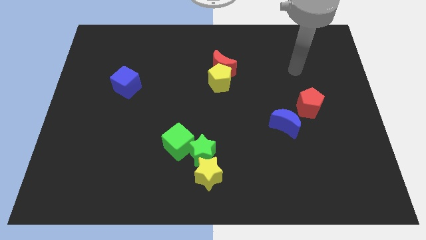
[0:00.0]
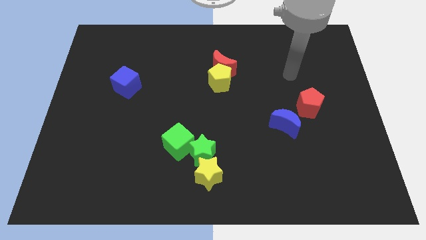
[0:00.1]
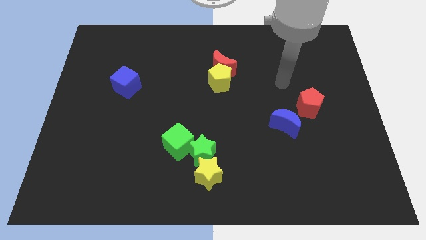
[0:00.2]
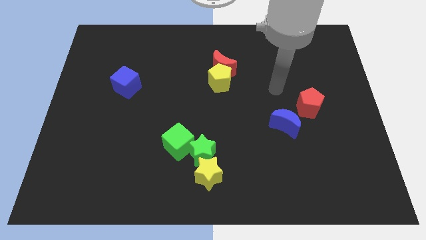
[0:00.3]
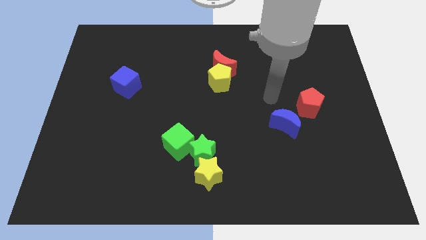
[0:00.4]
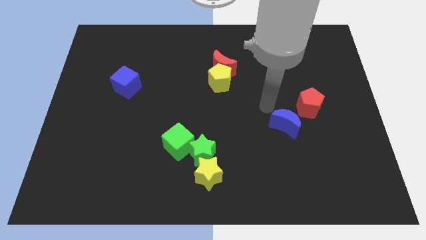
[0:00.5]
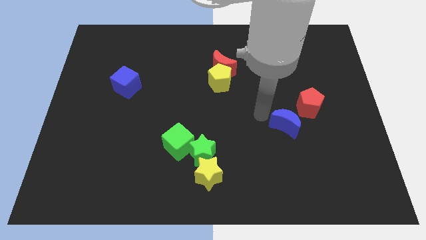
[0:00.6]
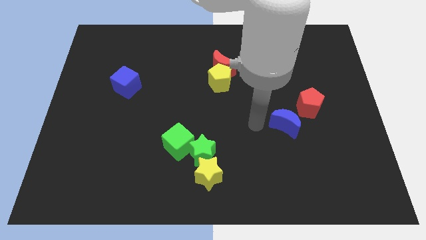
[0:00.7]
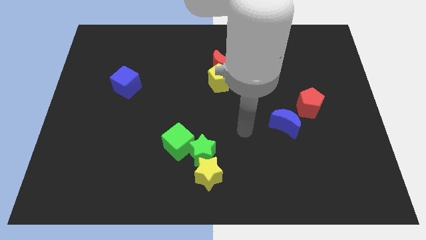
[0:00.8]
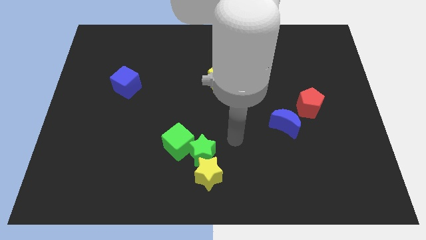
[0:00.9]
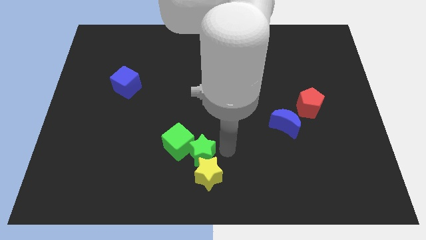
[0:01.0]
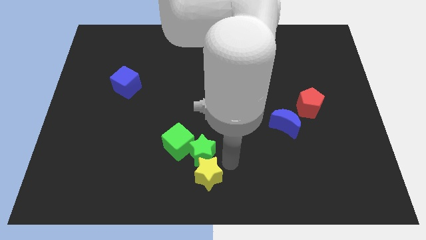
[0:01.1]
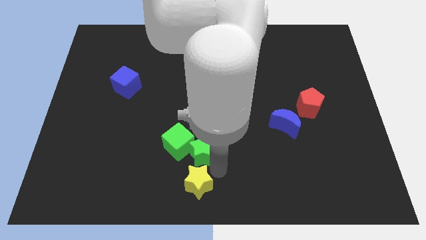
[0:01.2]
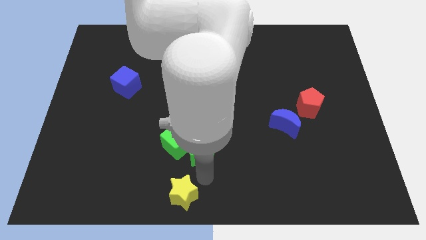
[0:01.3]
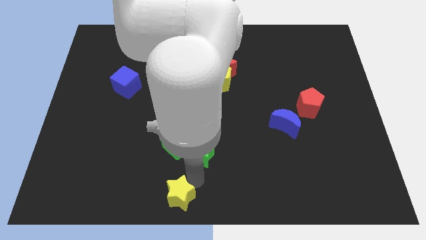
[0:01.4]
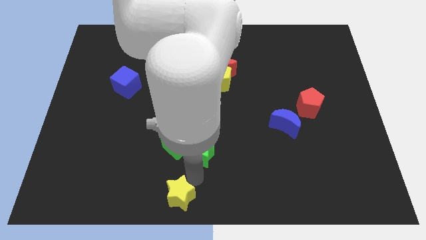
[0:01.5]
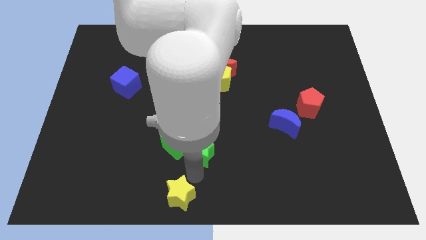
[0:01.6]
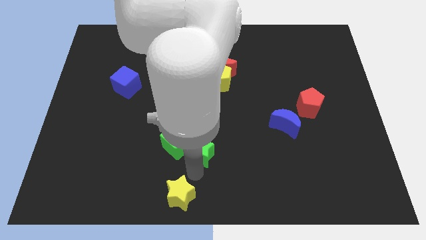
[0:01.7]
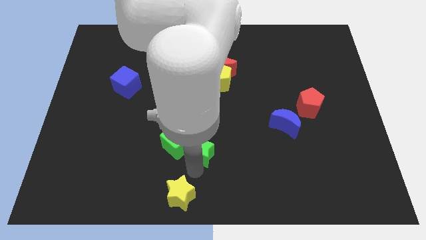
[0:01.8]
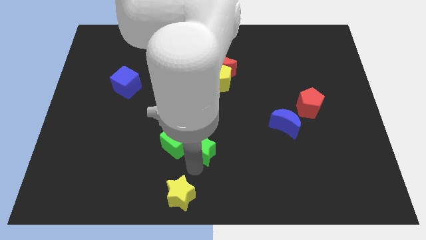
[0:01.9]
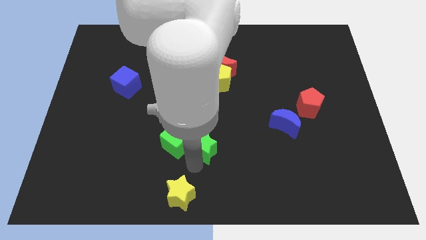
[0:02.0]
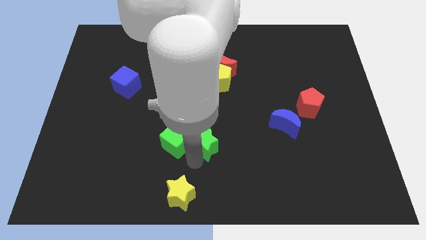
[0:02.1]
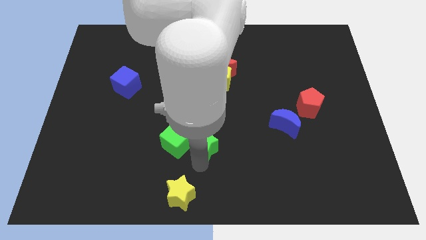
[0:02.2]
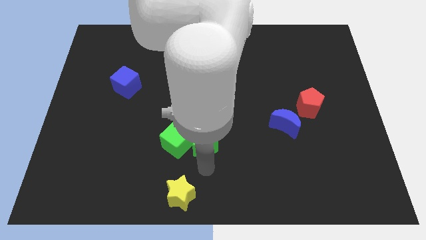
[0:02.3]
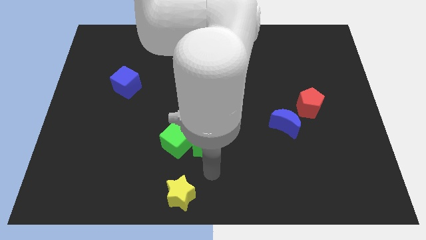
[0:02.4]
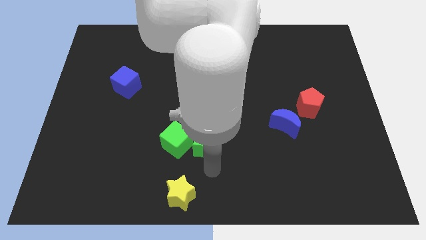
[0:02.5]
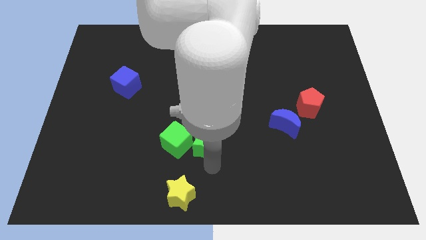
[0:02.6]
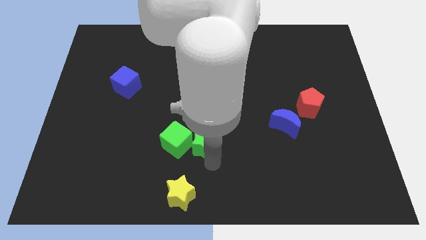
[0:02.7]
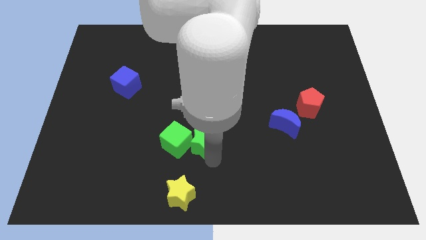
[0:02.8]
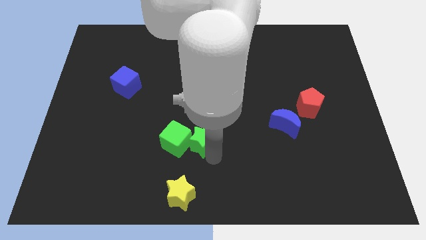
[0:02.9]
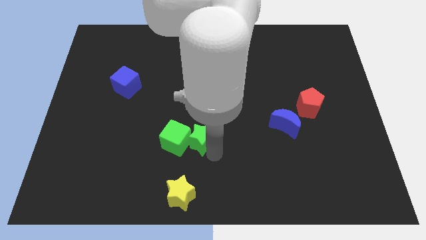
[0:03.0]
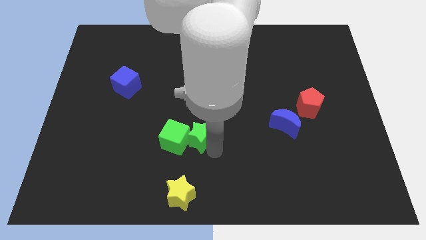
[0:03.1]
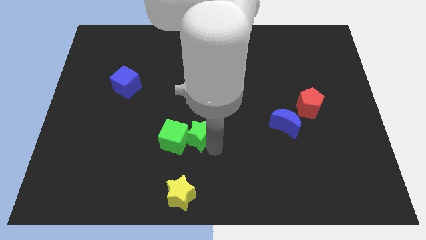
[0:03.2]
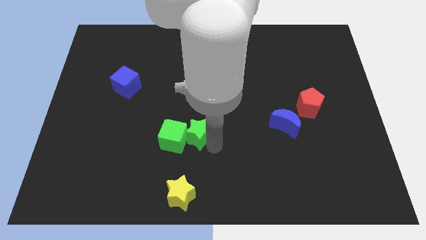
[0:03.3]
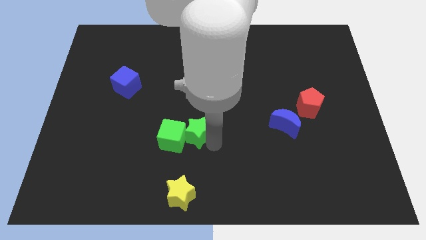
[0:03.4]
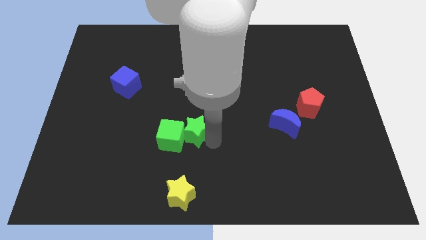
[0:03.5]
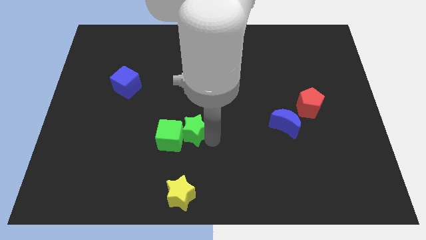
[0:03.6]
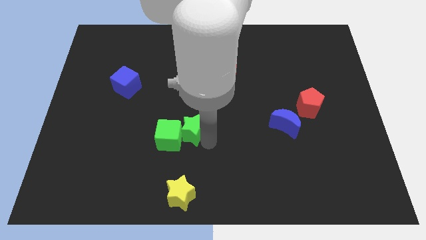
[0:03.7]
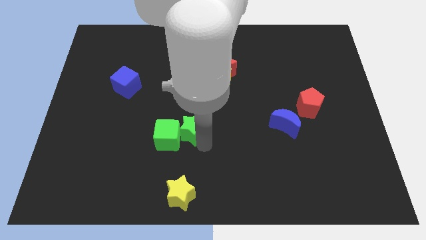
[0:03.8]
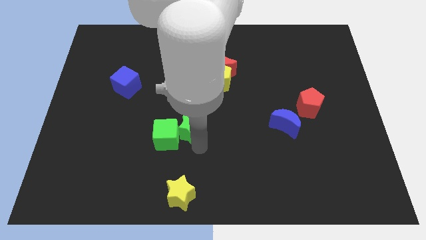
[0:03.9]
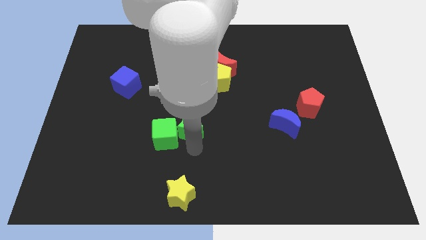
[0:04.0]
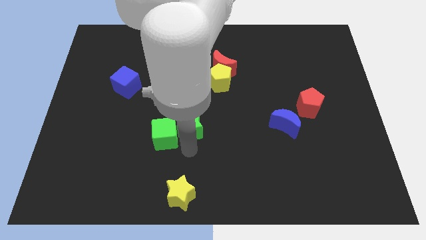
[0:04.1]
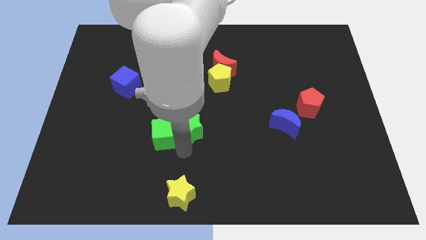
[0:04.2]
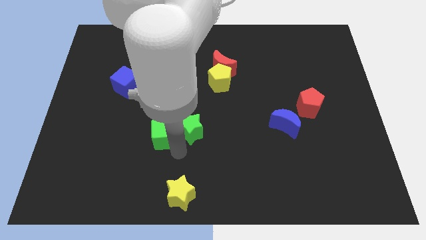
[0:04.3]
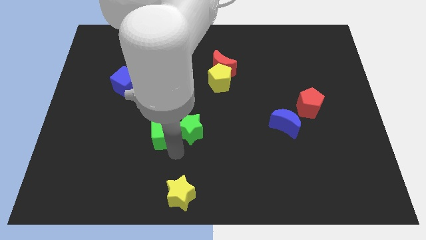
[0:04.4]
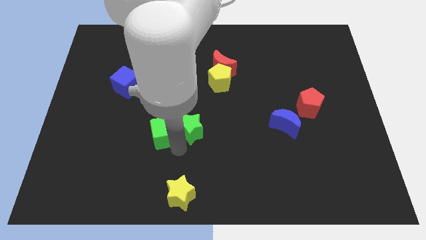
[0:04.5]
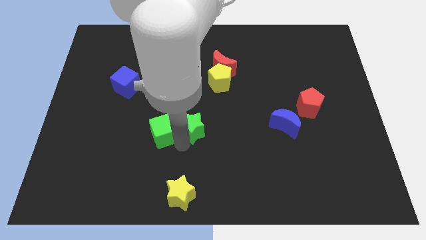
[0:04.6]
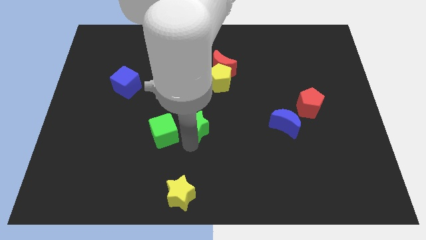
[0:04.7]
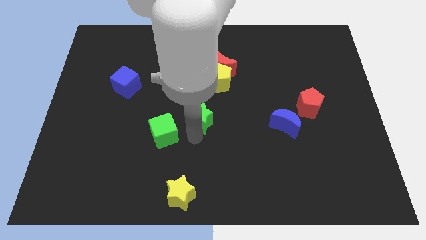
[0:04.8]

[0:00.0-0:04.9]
push the green star up a bit

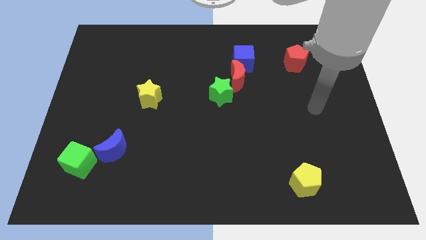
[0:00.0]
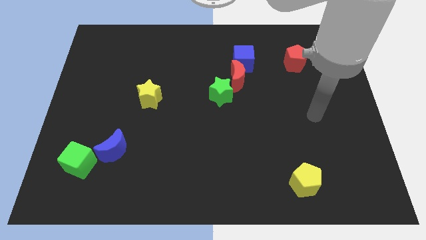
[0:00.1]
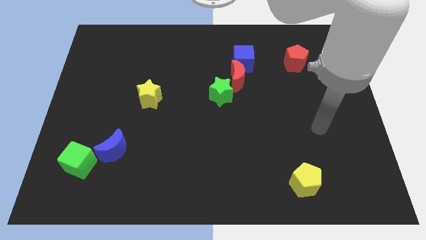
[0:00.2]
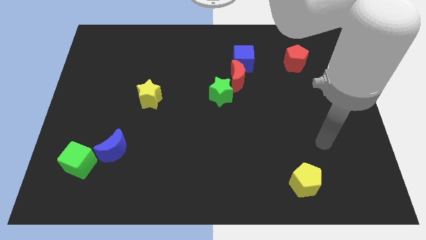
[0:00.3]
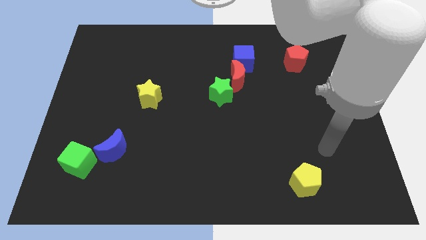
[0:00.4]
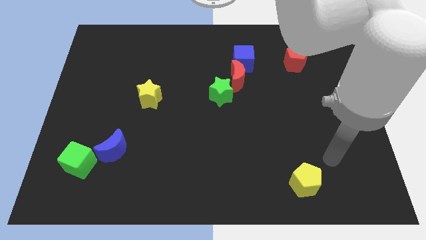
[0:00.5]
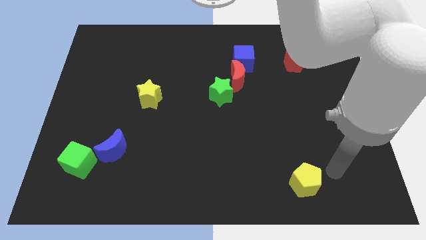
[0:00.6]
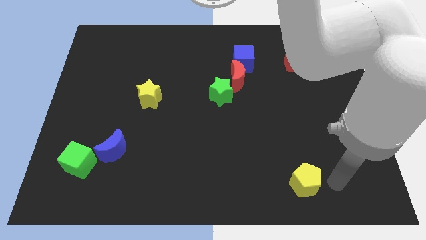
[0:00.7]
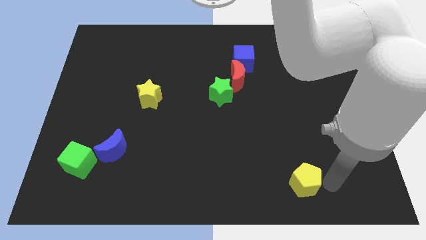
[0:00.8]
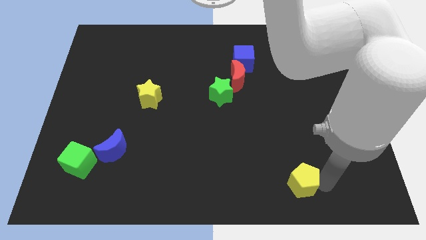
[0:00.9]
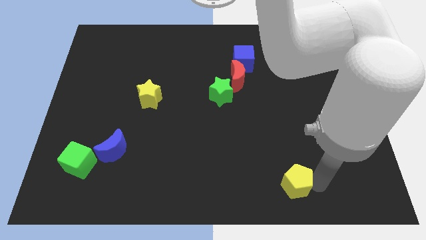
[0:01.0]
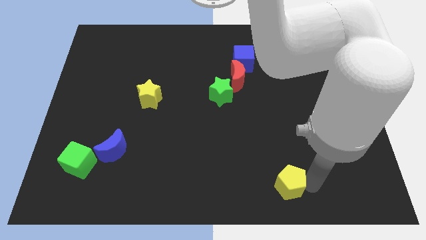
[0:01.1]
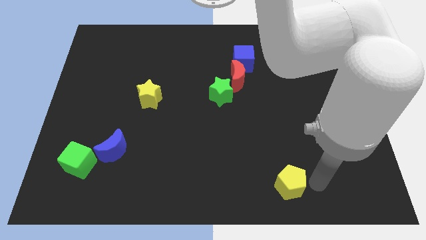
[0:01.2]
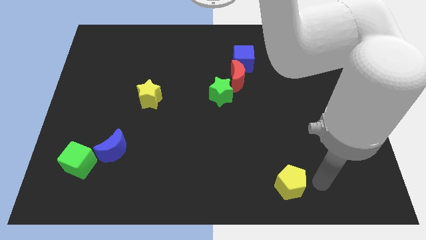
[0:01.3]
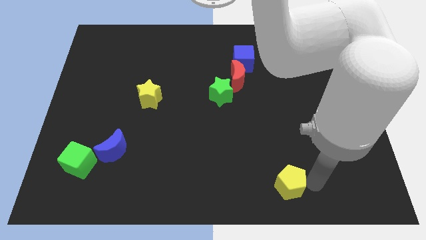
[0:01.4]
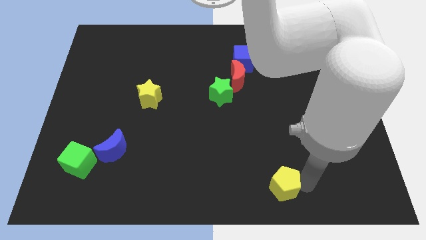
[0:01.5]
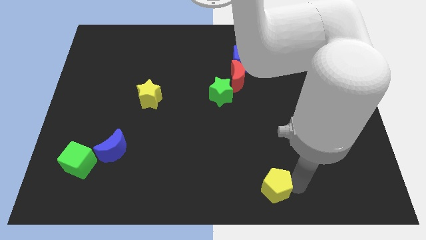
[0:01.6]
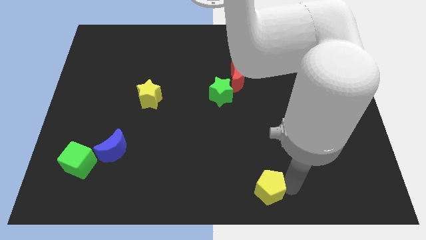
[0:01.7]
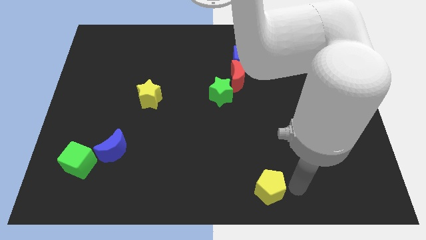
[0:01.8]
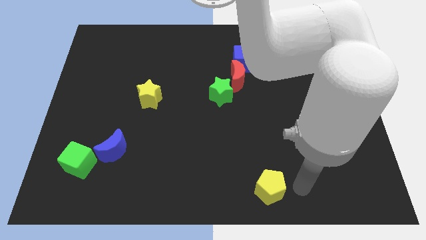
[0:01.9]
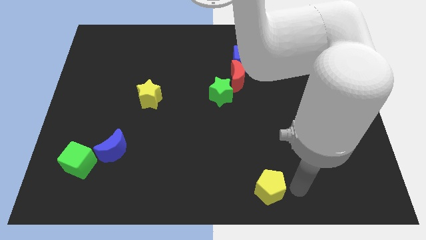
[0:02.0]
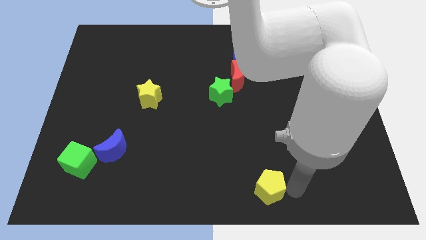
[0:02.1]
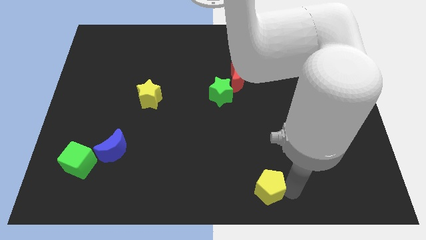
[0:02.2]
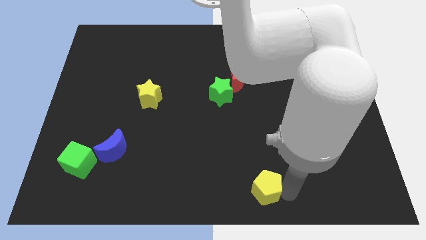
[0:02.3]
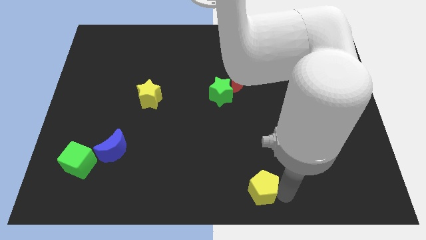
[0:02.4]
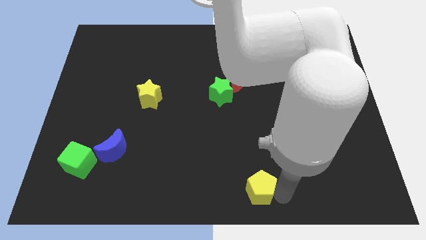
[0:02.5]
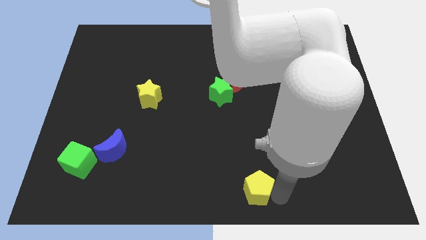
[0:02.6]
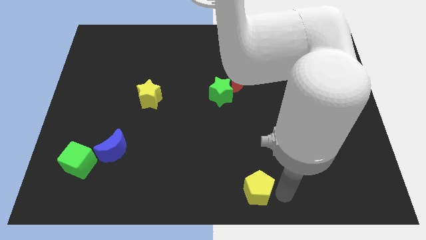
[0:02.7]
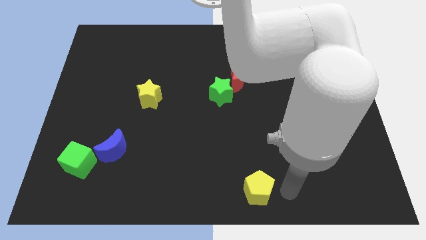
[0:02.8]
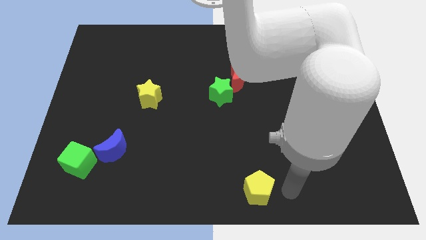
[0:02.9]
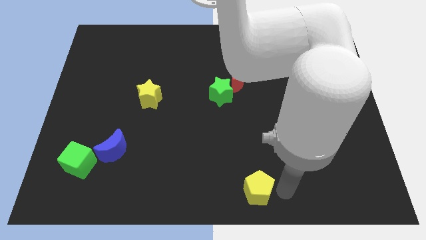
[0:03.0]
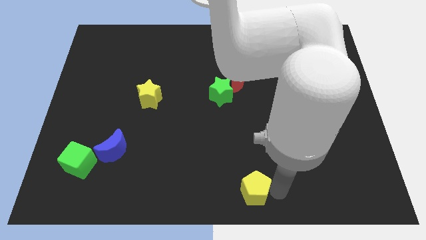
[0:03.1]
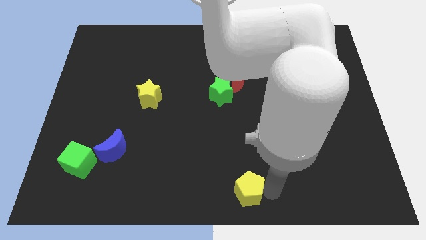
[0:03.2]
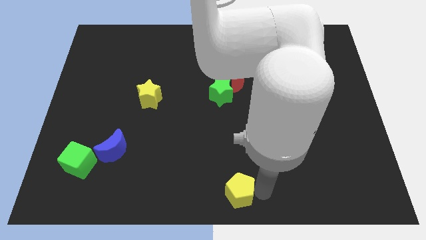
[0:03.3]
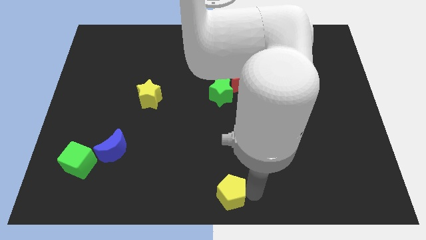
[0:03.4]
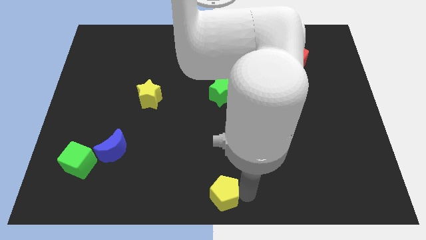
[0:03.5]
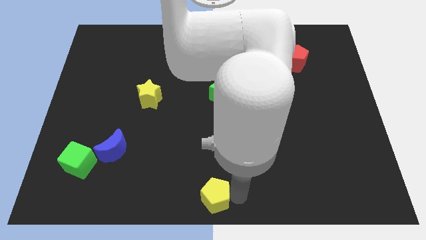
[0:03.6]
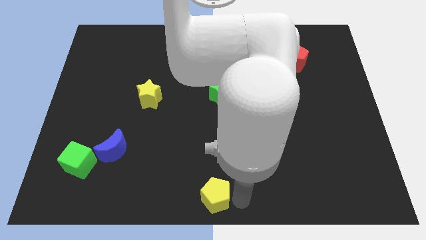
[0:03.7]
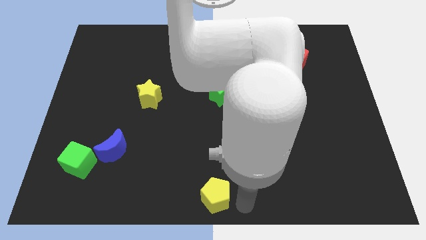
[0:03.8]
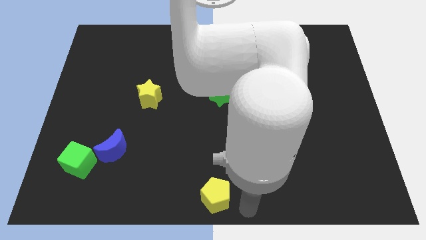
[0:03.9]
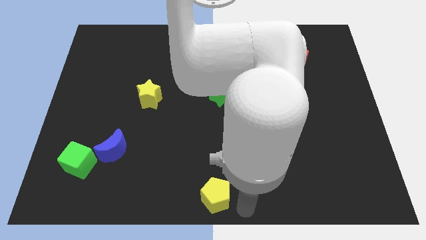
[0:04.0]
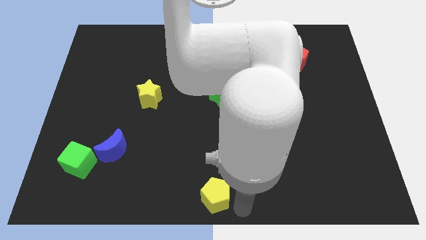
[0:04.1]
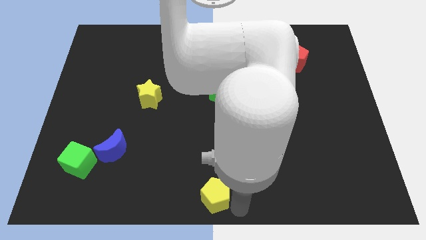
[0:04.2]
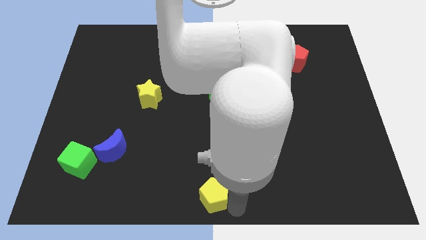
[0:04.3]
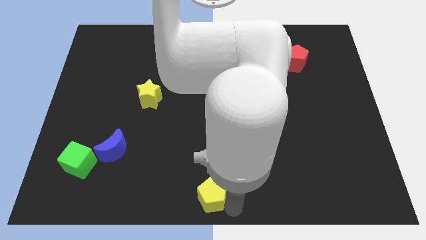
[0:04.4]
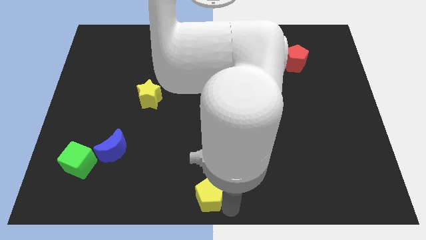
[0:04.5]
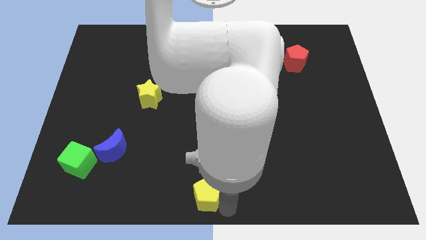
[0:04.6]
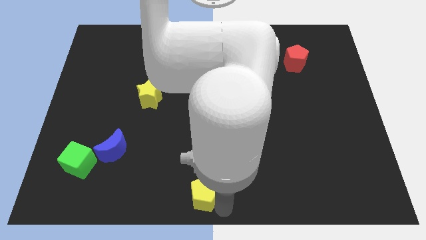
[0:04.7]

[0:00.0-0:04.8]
slide the yellow pentagon left
